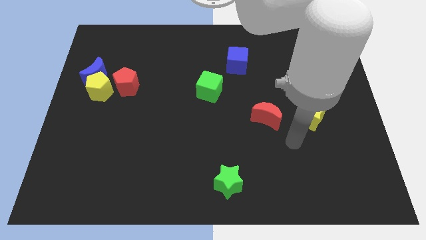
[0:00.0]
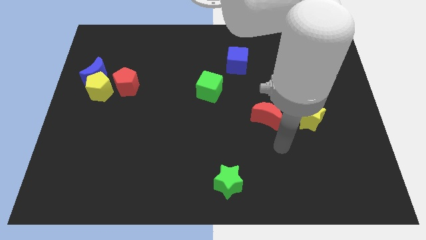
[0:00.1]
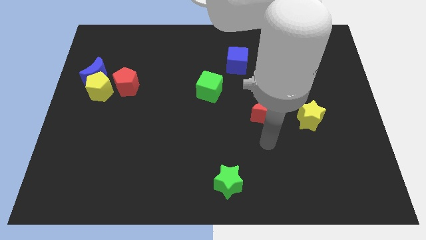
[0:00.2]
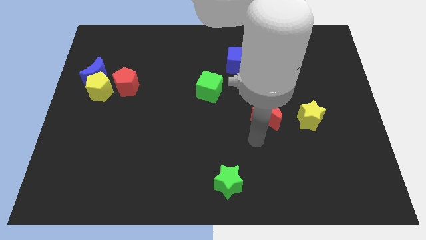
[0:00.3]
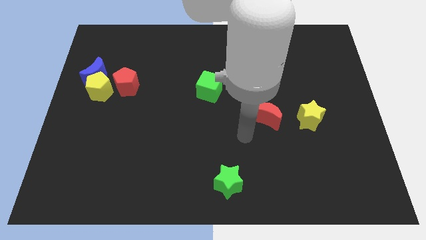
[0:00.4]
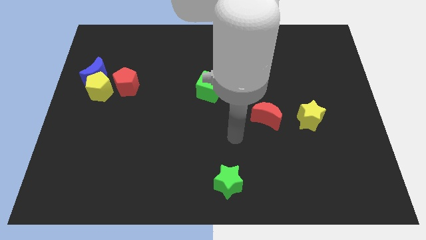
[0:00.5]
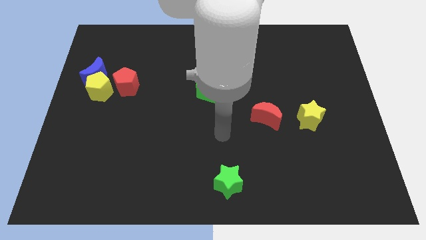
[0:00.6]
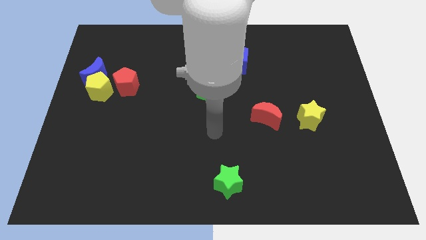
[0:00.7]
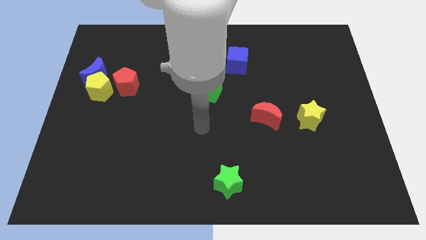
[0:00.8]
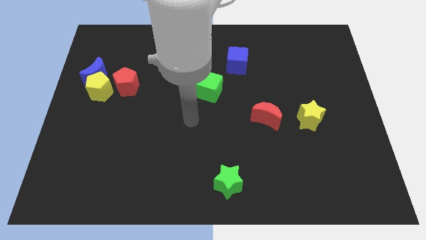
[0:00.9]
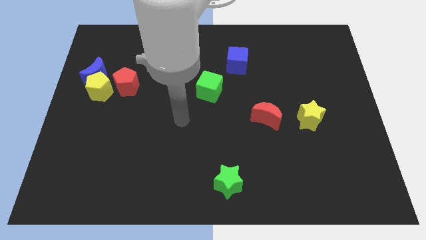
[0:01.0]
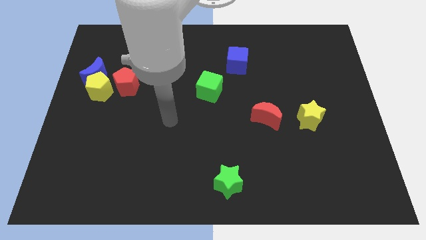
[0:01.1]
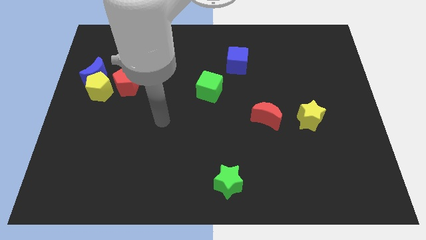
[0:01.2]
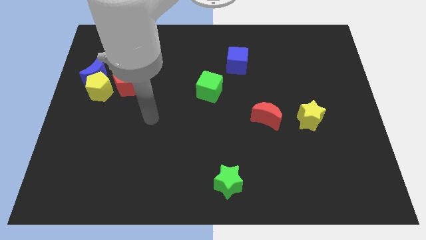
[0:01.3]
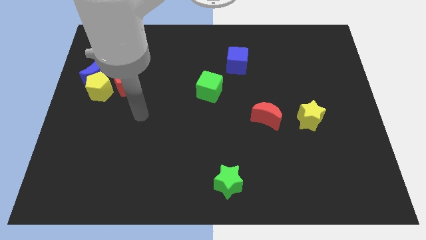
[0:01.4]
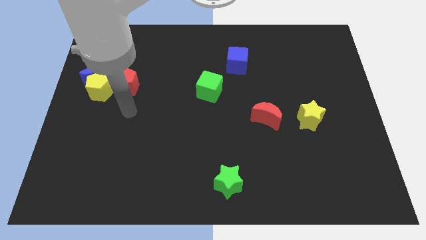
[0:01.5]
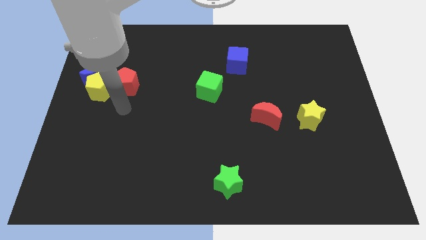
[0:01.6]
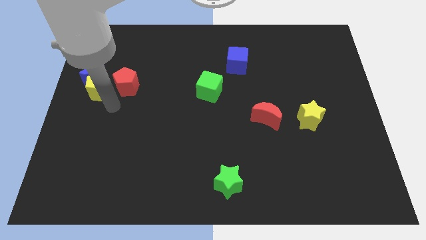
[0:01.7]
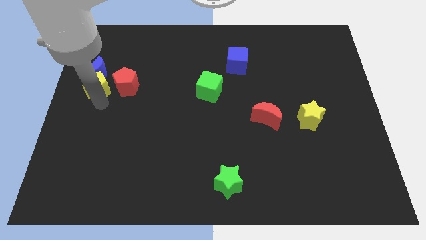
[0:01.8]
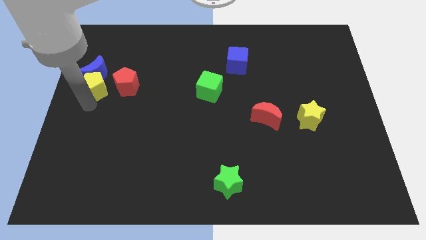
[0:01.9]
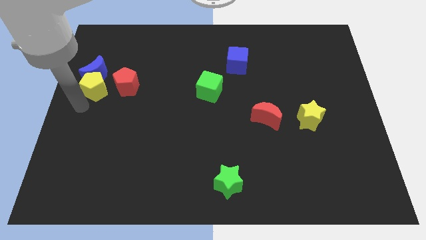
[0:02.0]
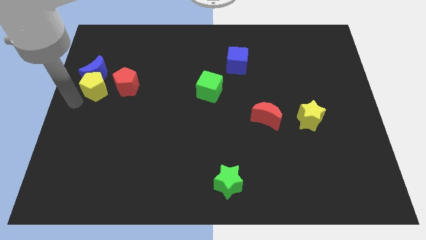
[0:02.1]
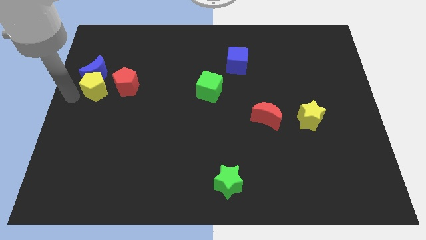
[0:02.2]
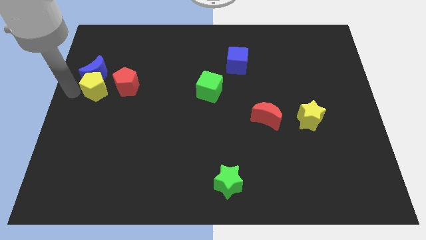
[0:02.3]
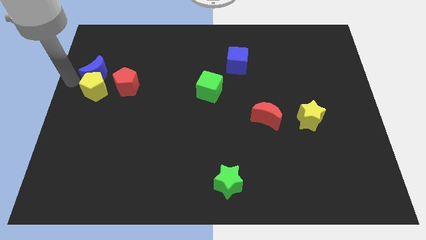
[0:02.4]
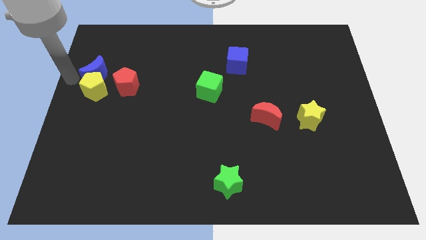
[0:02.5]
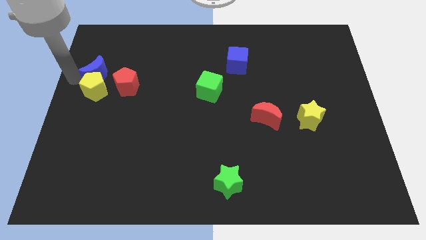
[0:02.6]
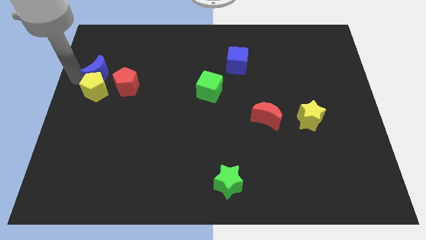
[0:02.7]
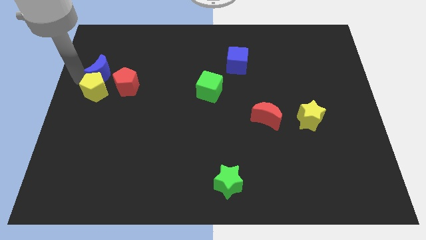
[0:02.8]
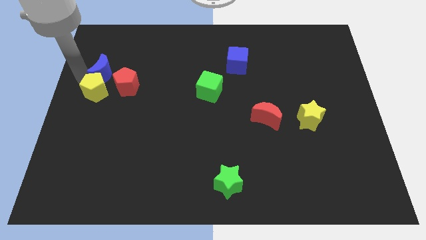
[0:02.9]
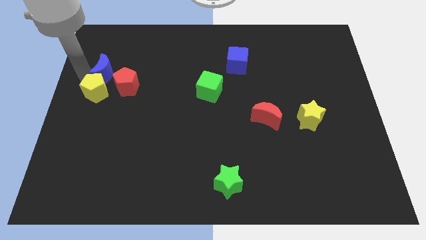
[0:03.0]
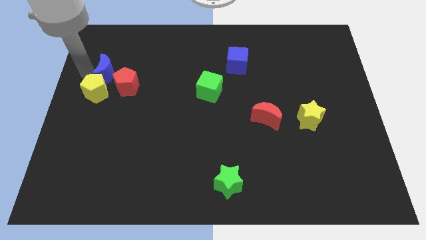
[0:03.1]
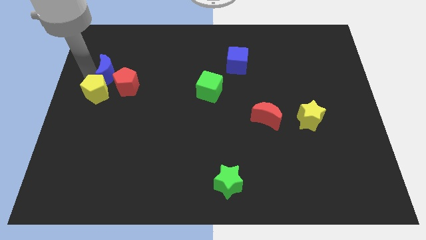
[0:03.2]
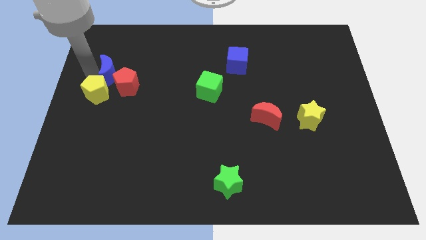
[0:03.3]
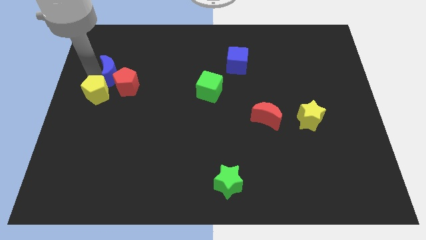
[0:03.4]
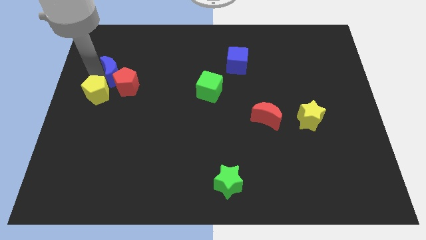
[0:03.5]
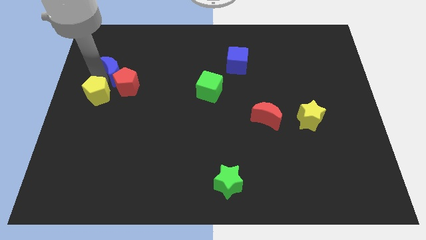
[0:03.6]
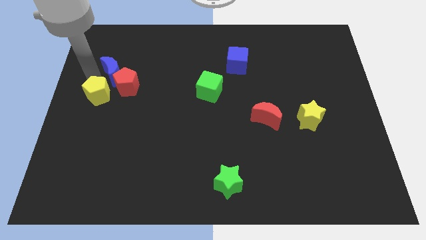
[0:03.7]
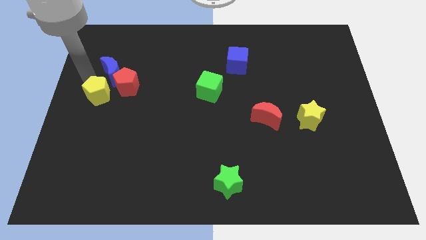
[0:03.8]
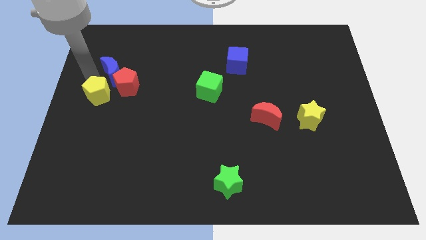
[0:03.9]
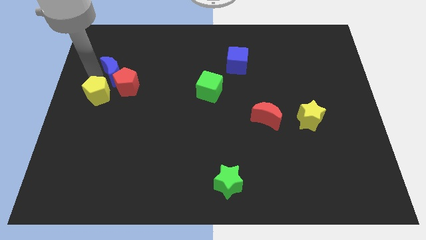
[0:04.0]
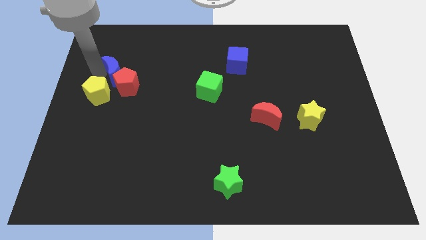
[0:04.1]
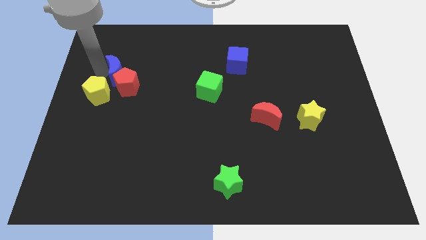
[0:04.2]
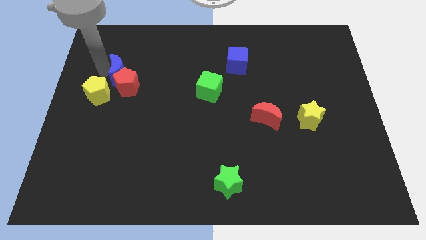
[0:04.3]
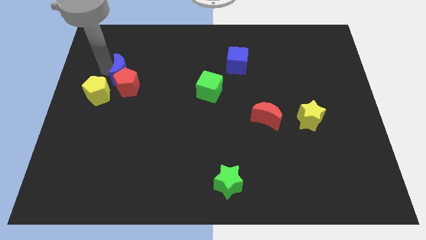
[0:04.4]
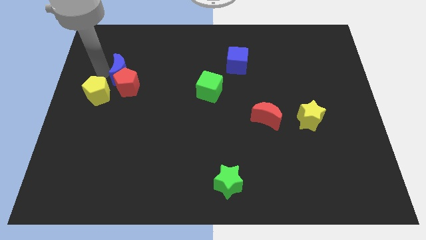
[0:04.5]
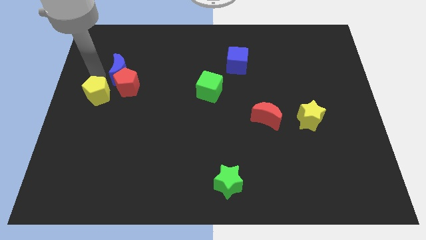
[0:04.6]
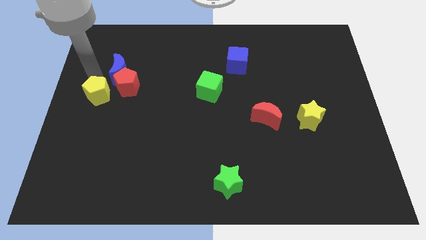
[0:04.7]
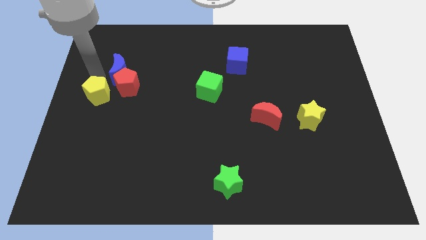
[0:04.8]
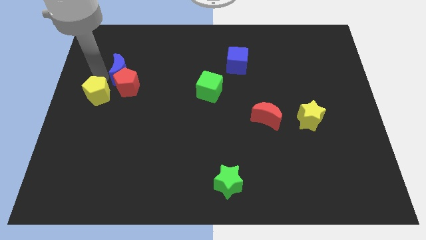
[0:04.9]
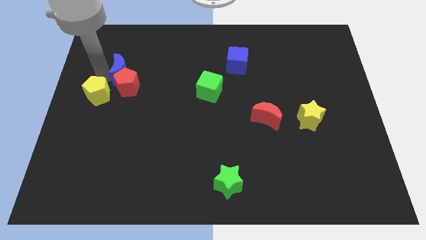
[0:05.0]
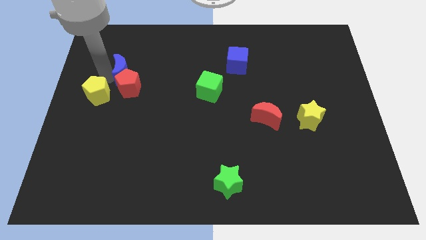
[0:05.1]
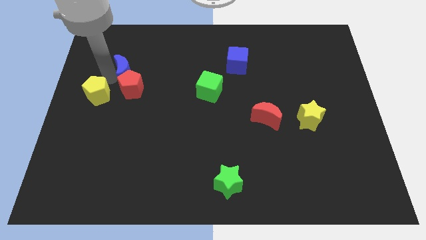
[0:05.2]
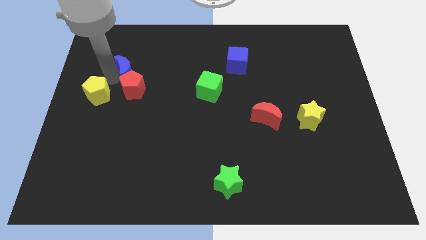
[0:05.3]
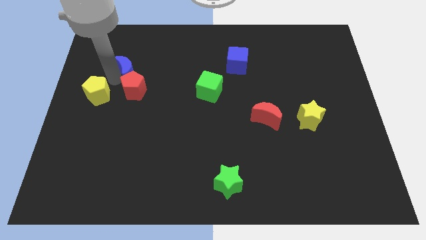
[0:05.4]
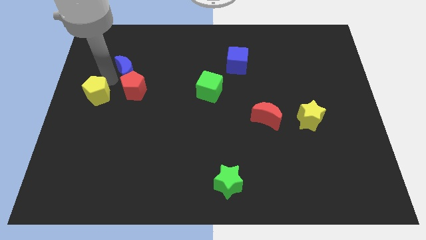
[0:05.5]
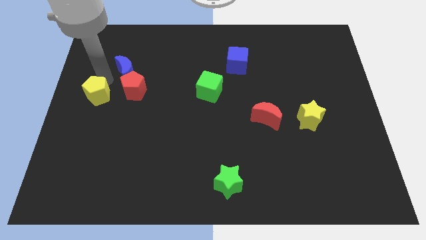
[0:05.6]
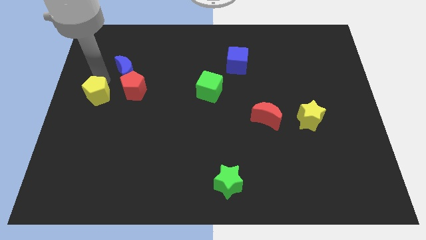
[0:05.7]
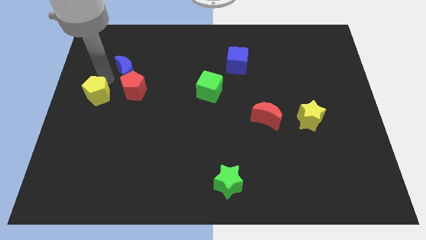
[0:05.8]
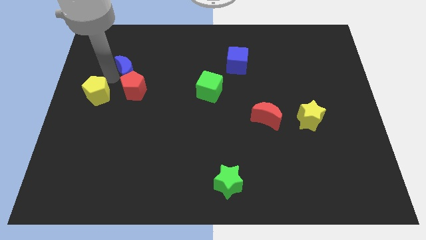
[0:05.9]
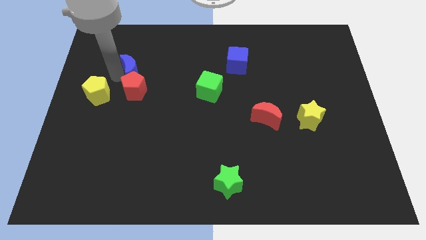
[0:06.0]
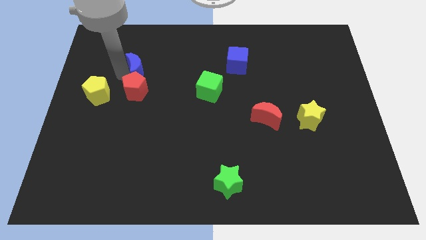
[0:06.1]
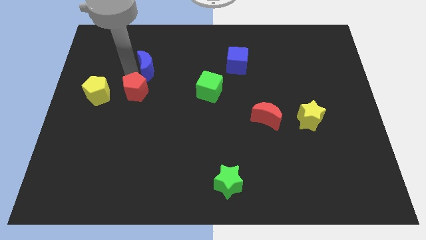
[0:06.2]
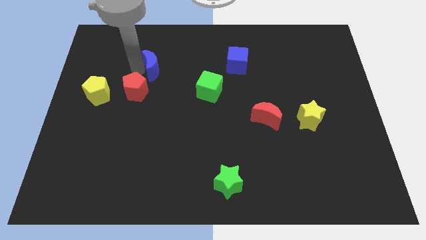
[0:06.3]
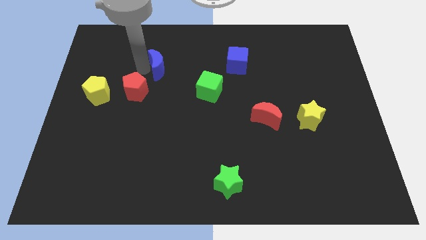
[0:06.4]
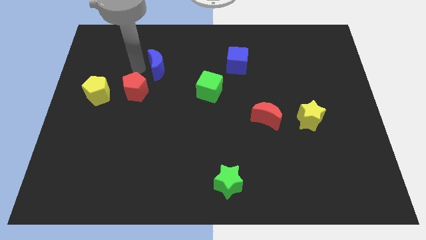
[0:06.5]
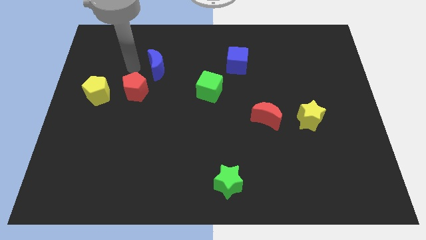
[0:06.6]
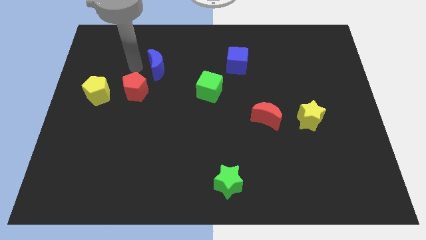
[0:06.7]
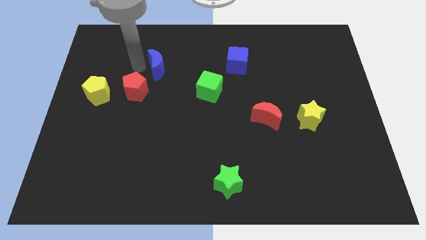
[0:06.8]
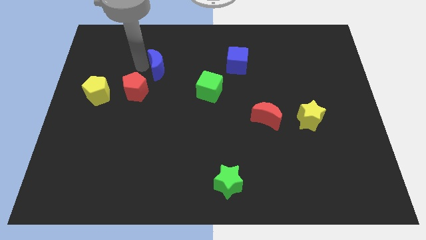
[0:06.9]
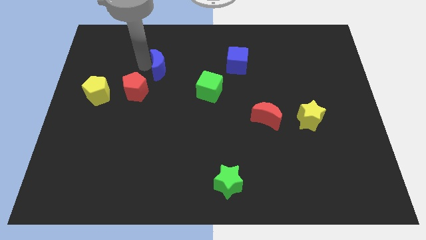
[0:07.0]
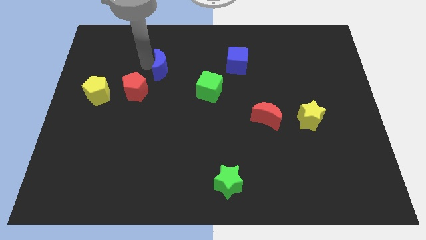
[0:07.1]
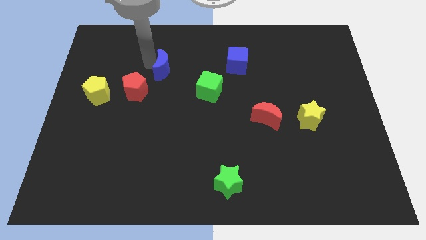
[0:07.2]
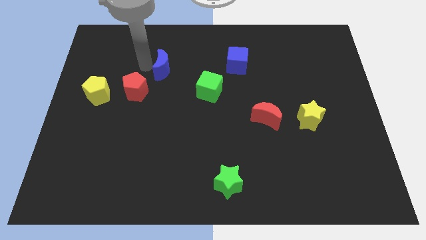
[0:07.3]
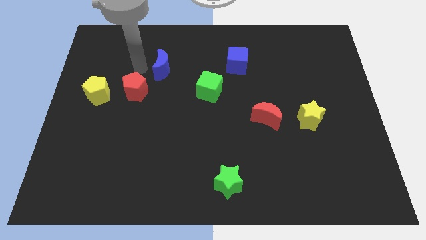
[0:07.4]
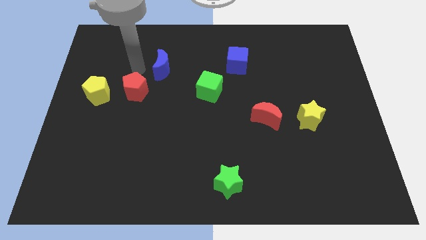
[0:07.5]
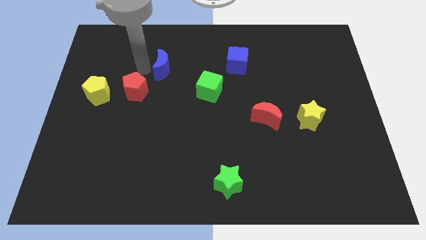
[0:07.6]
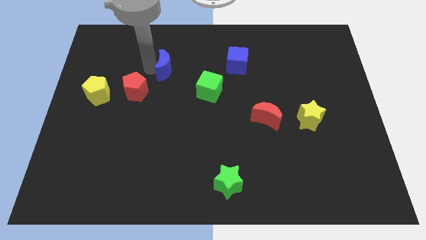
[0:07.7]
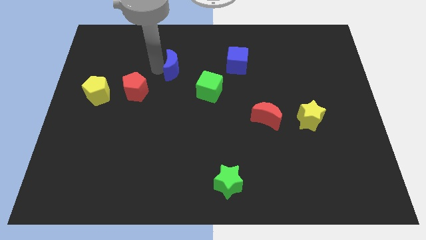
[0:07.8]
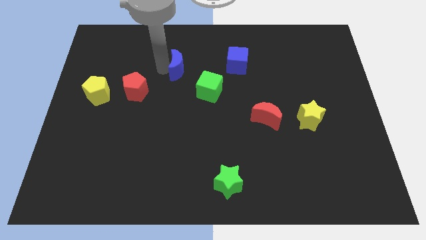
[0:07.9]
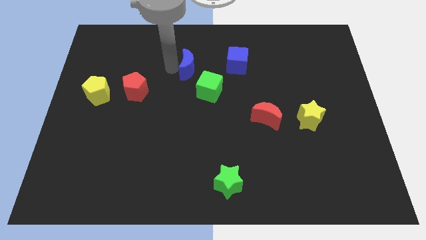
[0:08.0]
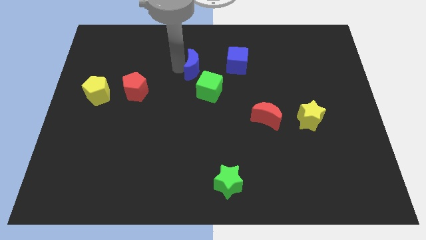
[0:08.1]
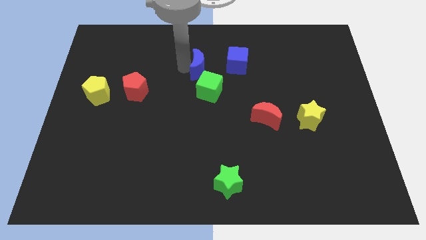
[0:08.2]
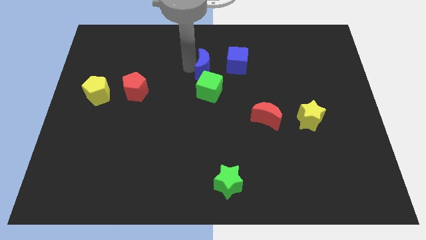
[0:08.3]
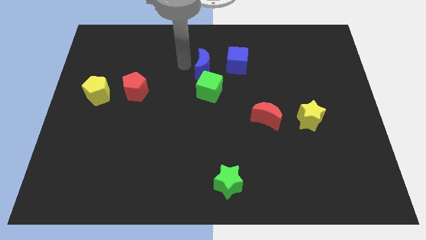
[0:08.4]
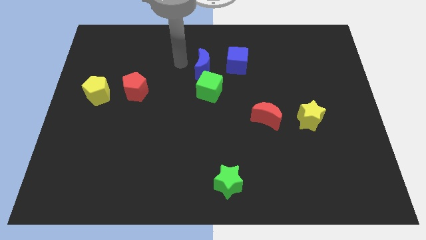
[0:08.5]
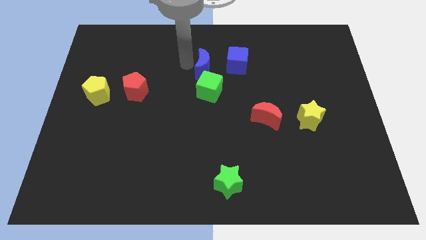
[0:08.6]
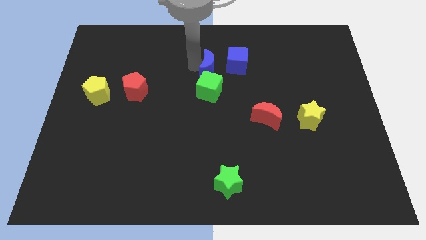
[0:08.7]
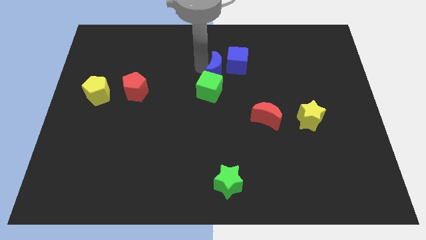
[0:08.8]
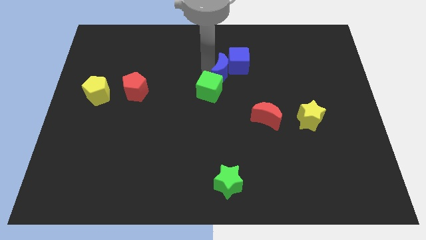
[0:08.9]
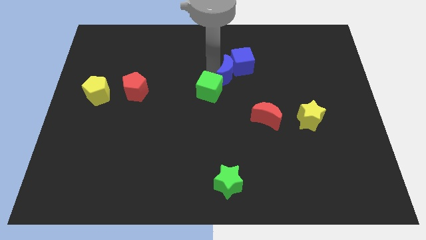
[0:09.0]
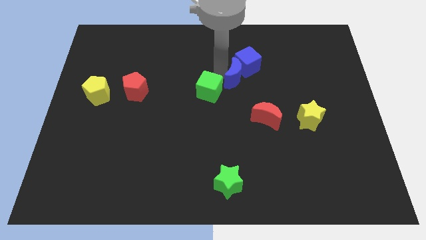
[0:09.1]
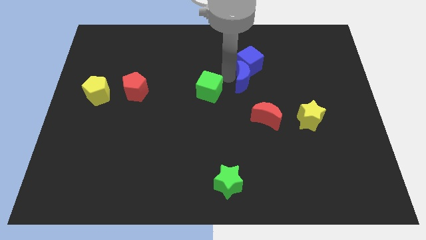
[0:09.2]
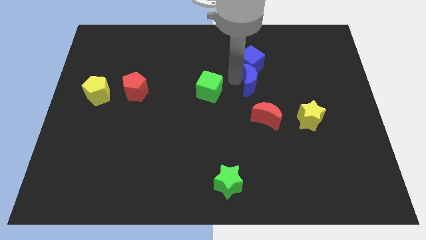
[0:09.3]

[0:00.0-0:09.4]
put the blue moon to the bottom right side of the blue cube
